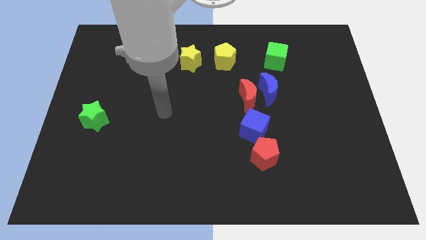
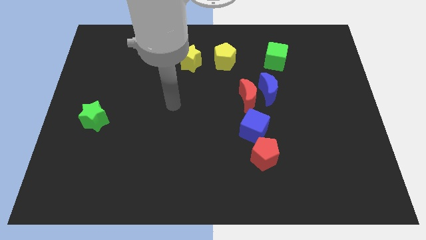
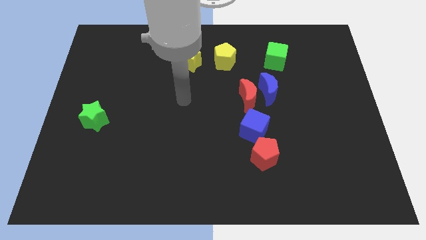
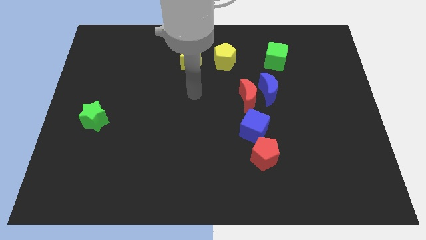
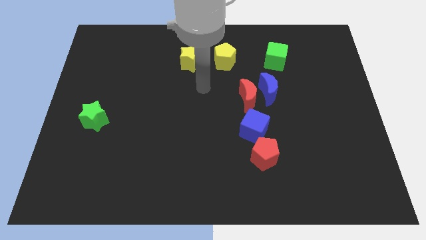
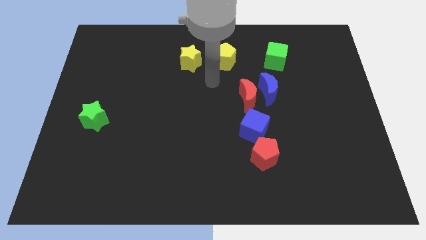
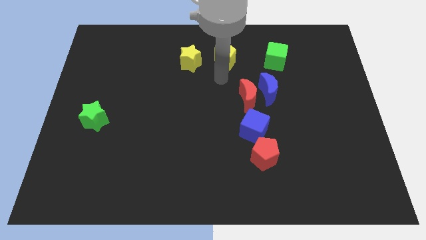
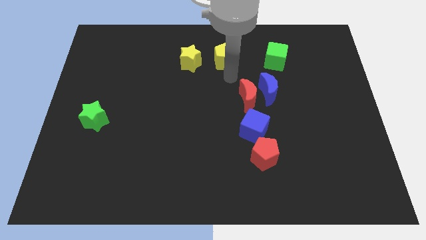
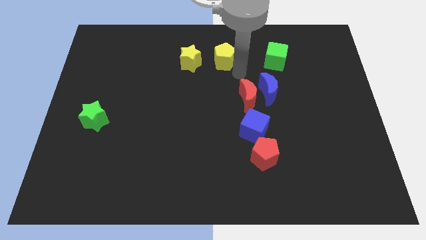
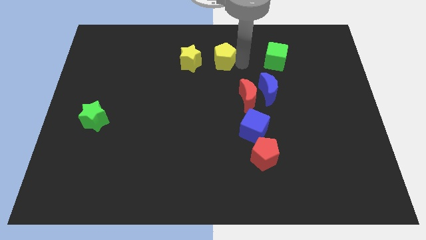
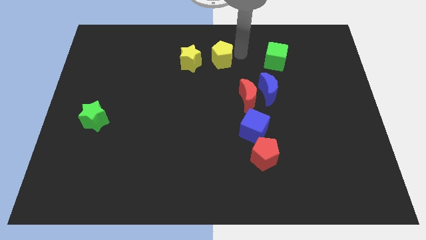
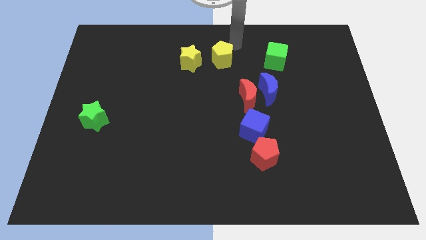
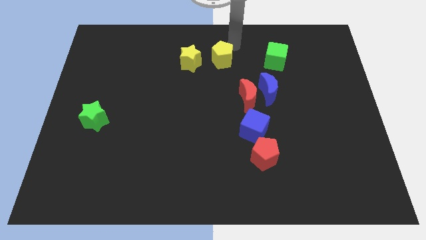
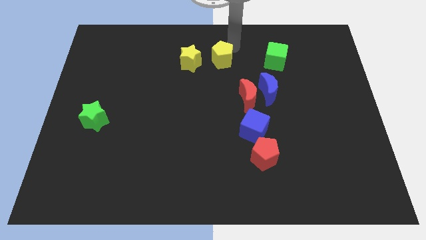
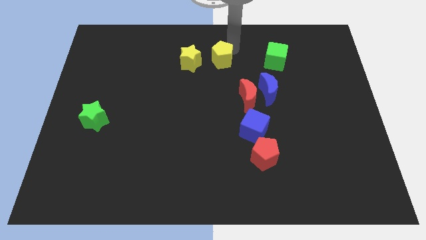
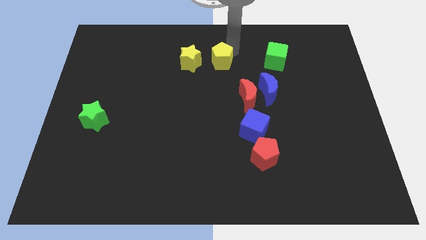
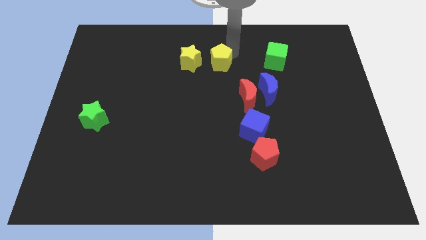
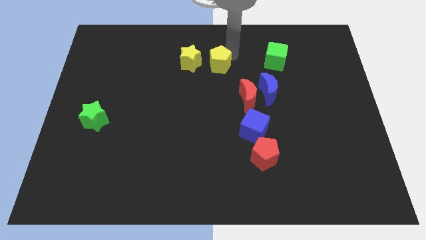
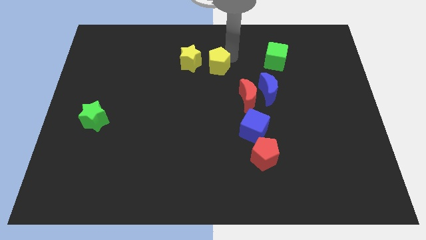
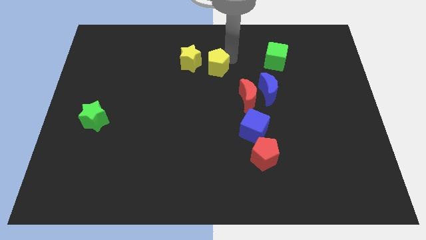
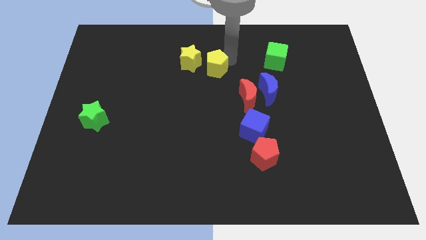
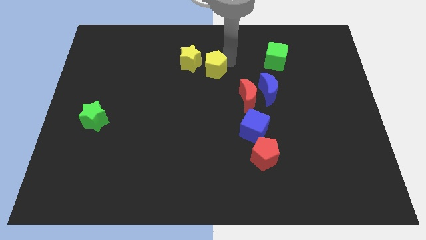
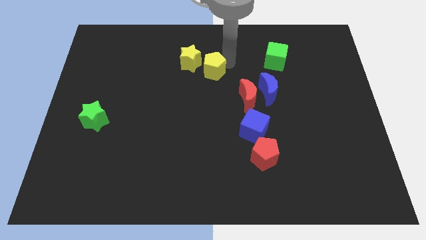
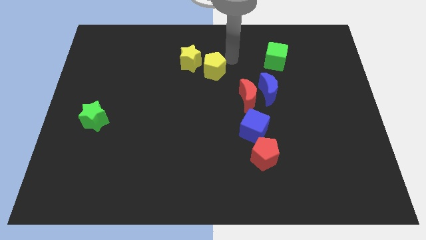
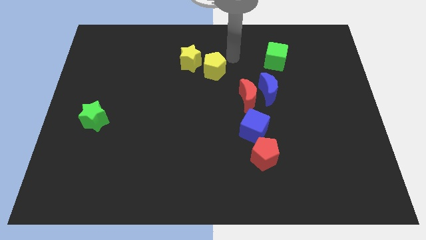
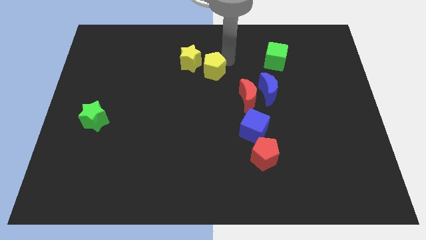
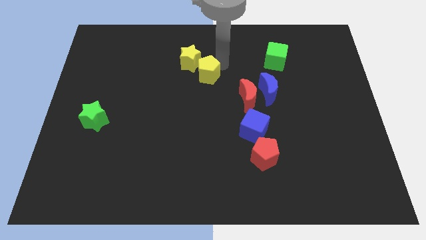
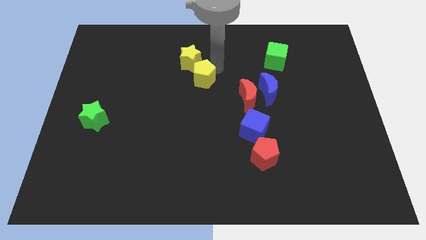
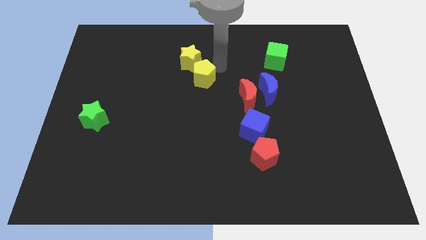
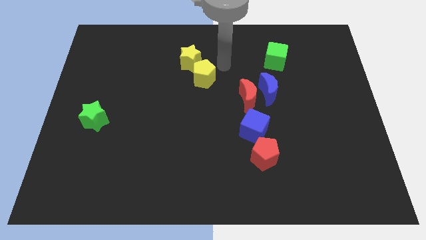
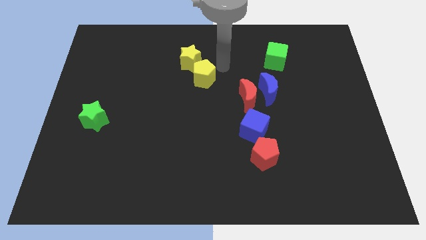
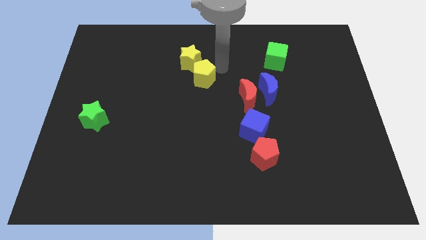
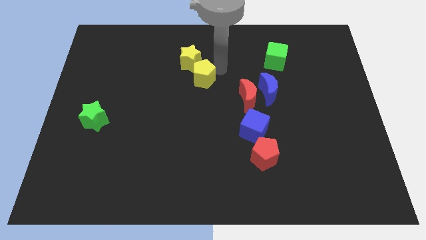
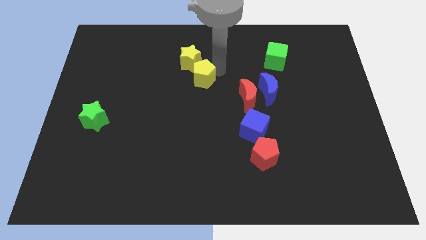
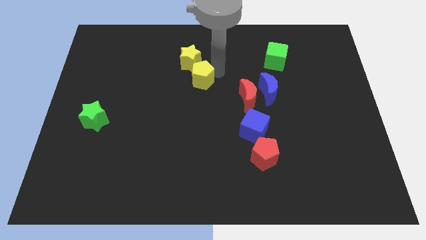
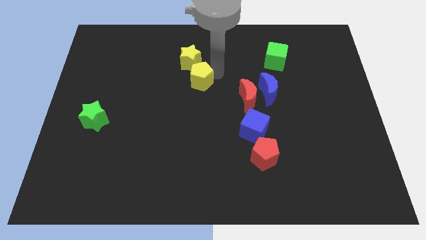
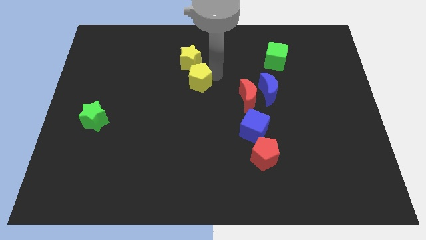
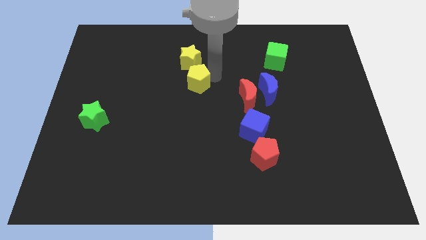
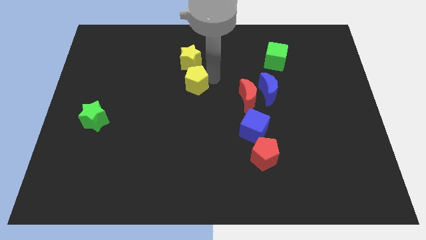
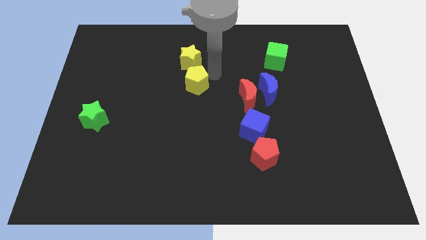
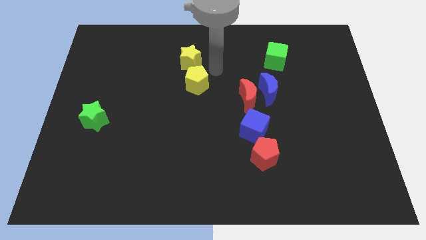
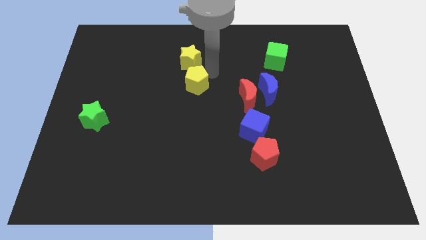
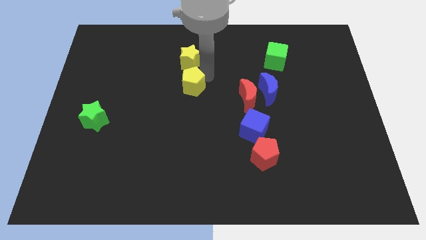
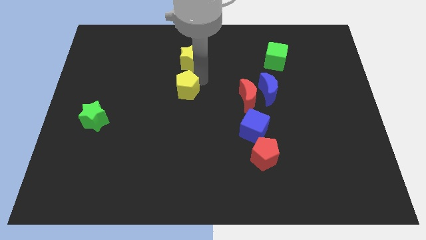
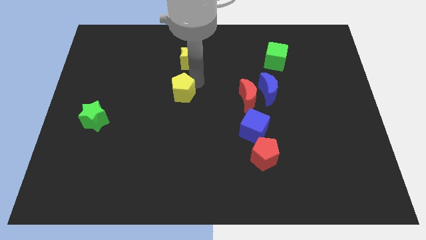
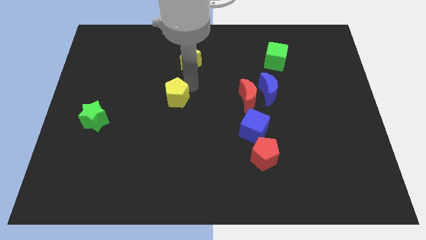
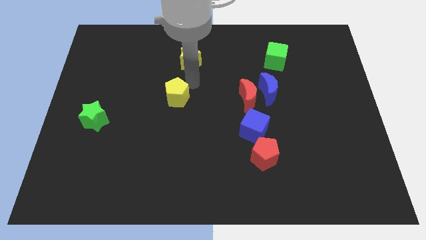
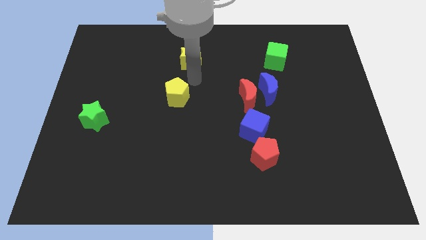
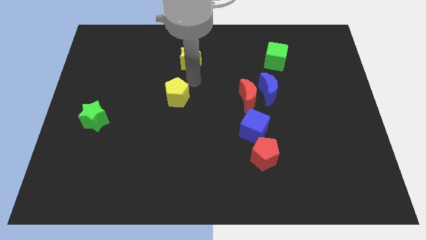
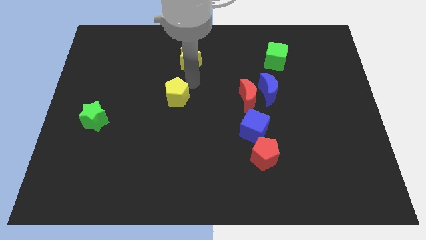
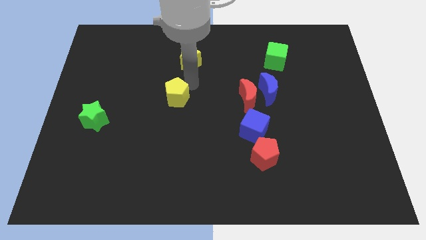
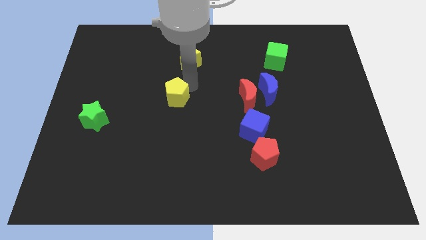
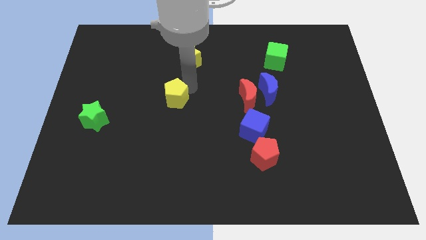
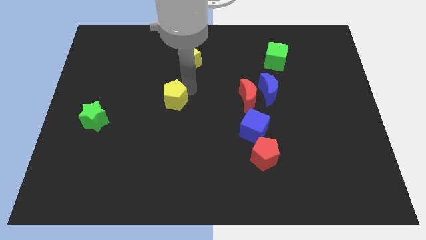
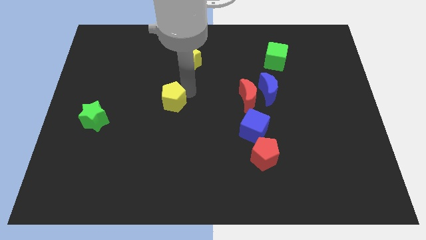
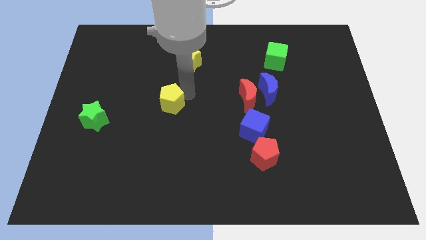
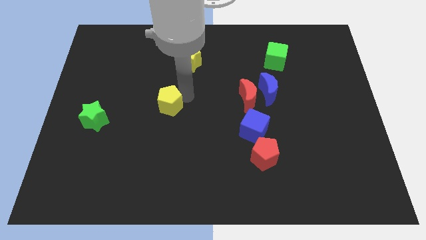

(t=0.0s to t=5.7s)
move the yellow pentagon downwards and to the left diagonally

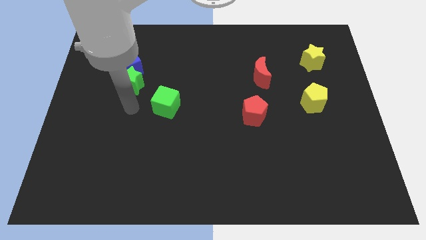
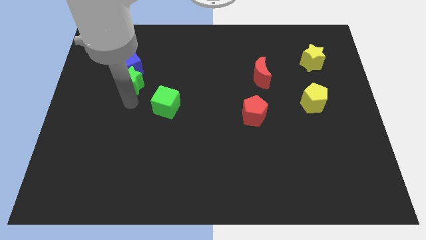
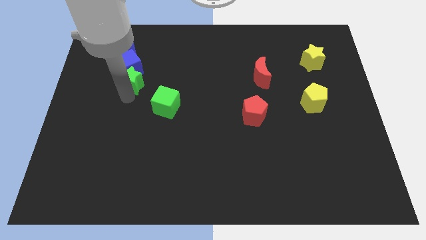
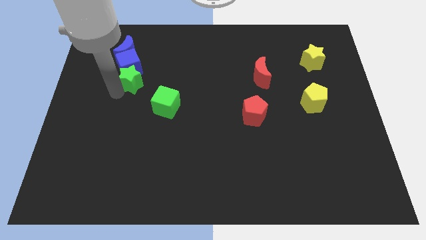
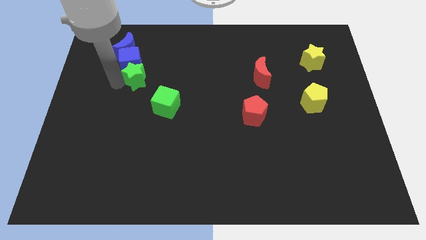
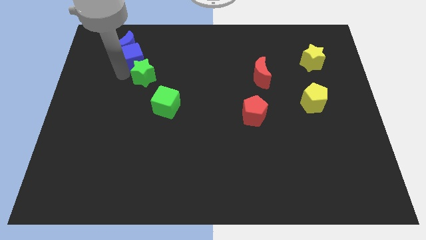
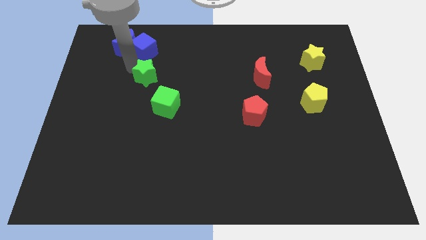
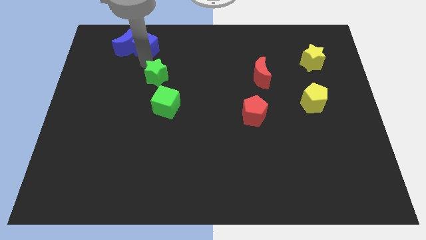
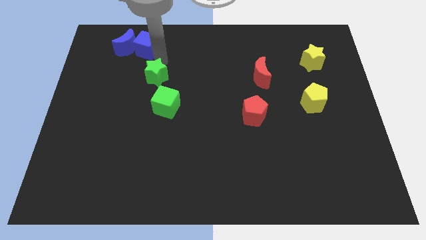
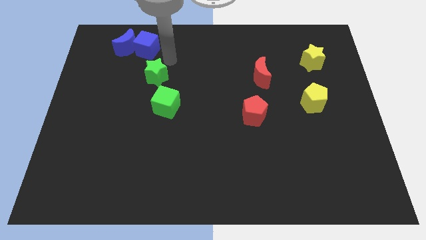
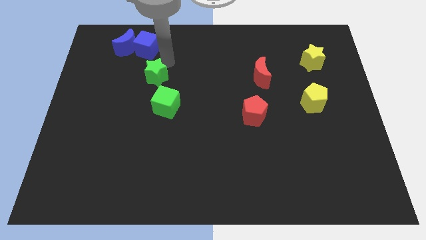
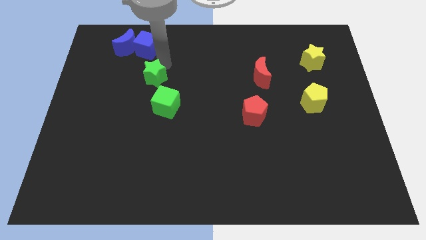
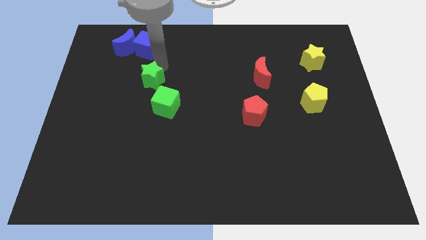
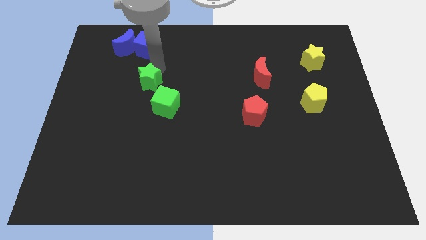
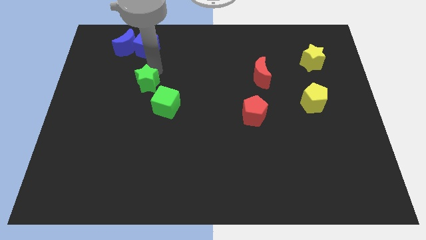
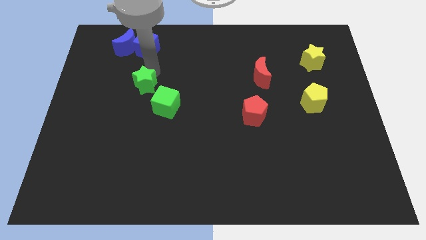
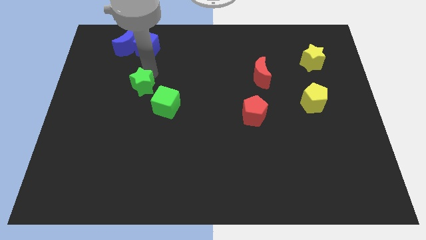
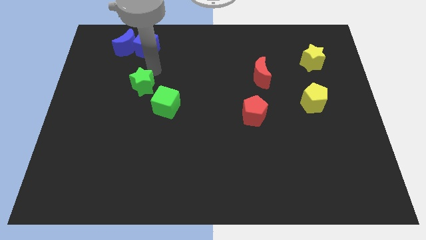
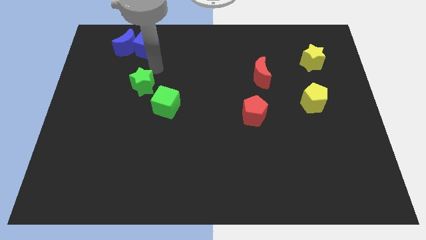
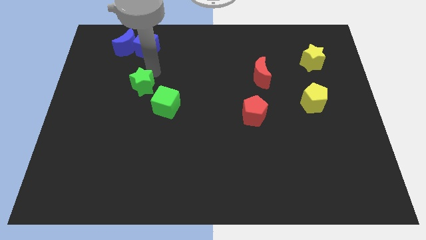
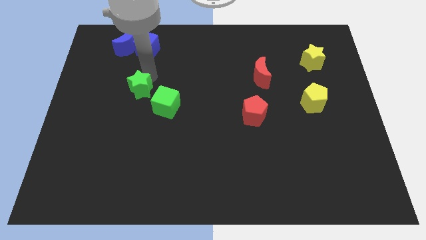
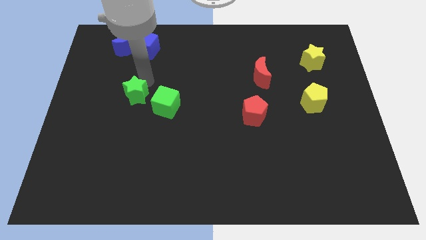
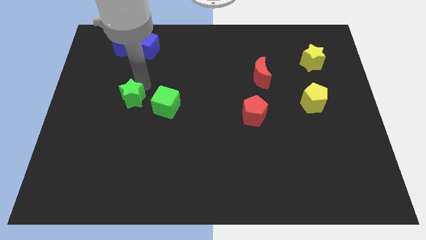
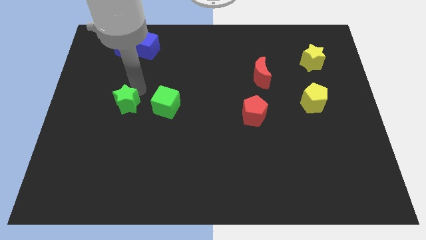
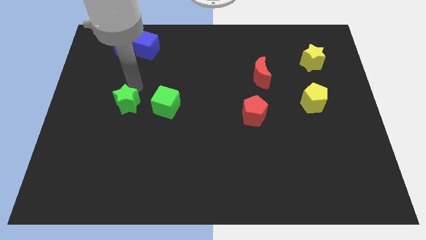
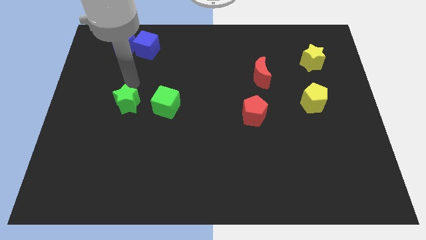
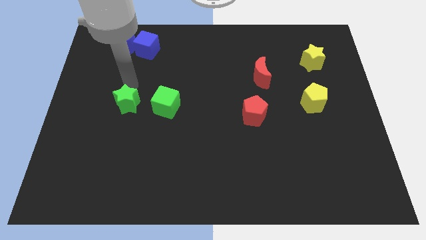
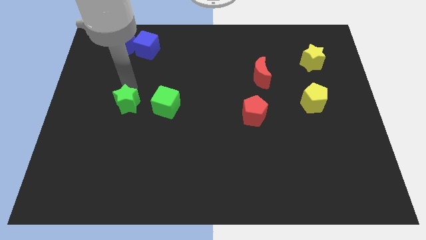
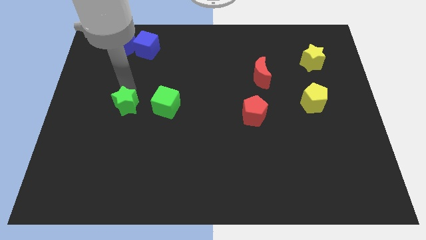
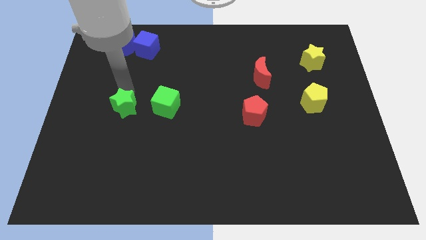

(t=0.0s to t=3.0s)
slightly slide the green star downwards
